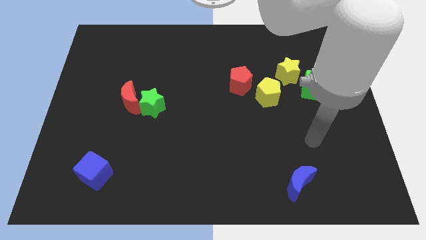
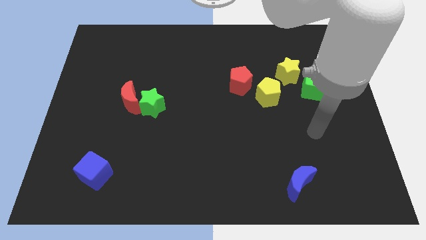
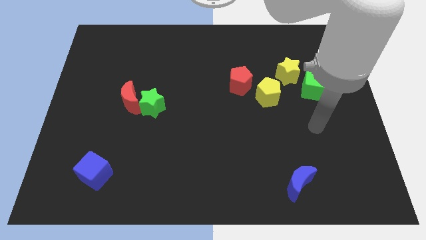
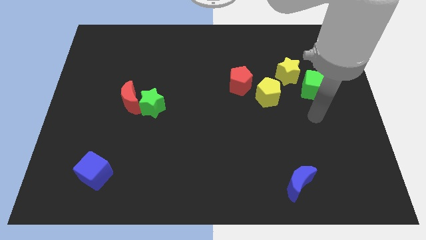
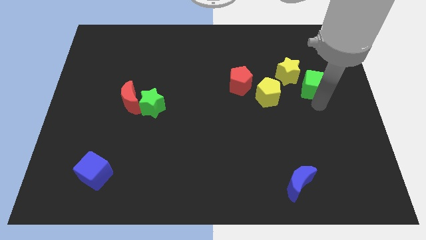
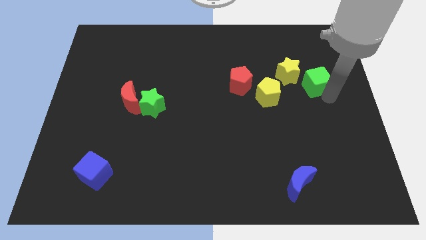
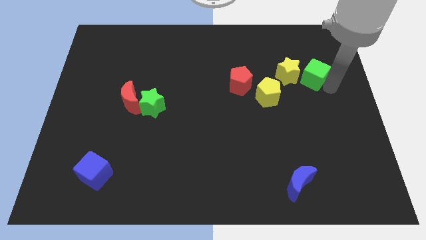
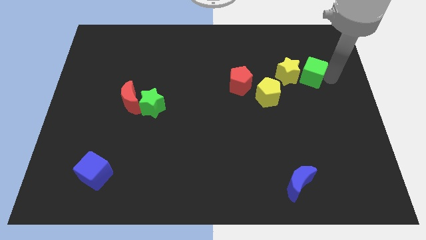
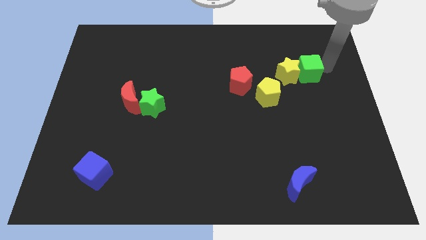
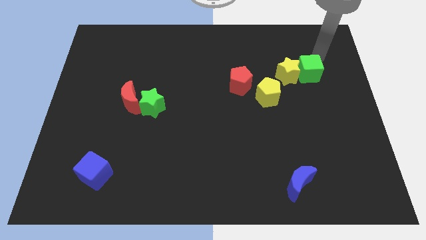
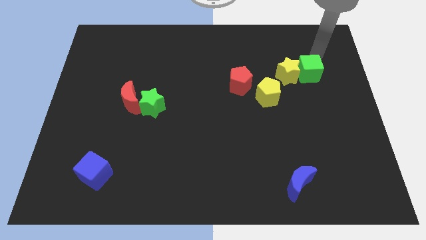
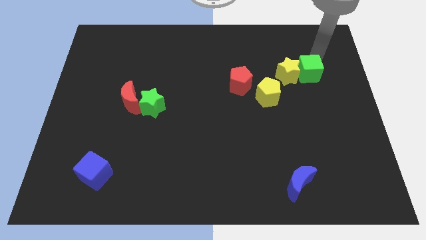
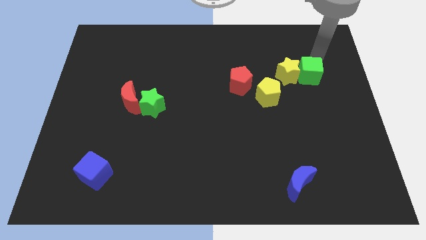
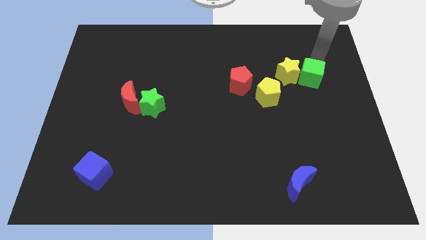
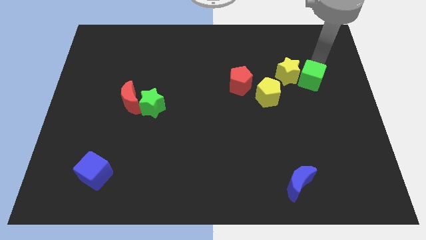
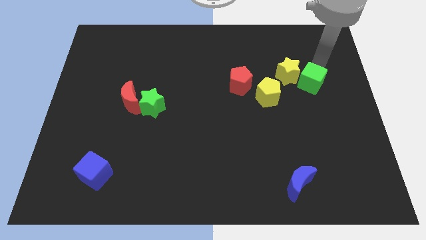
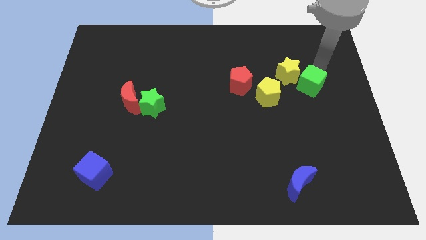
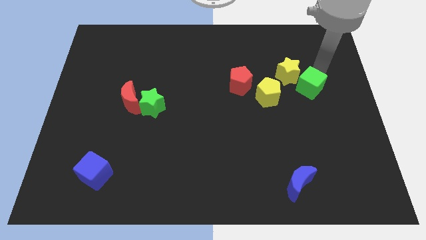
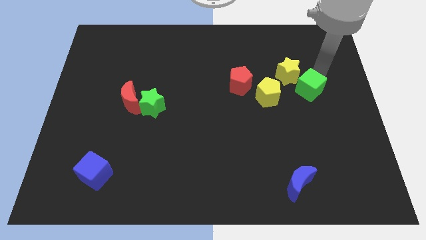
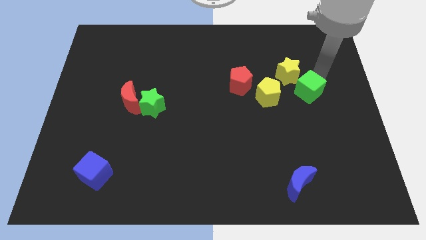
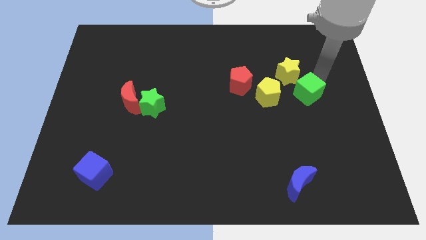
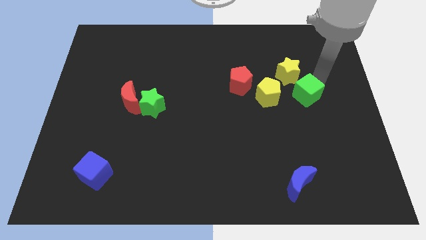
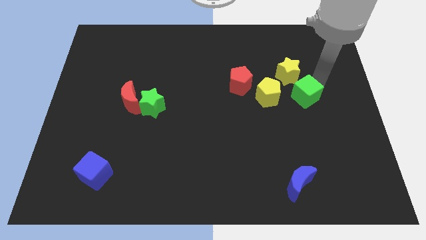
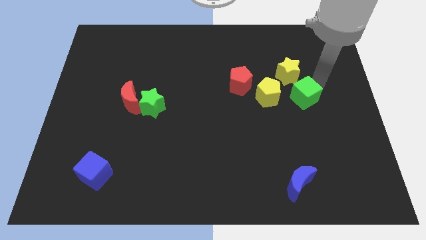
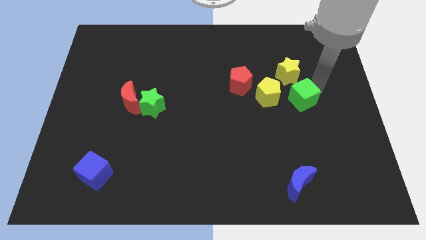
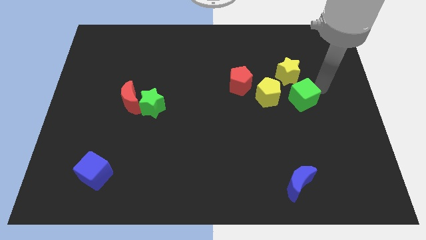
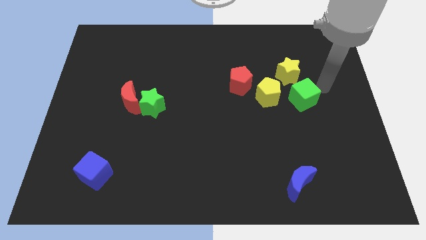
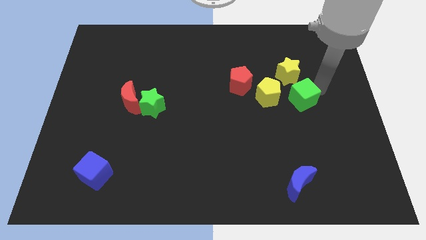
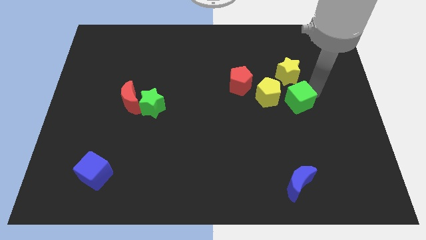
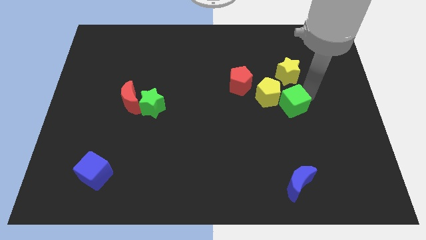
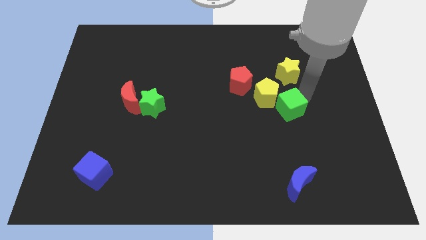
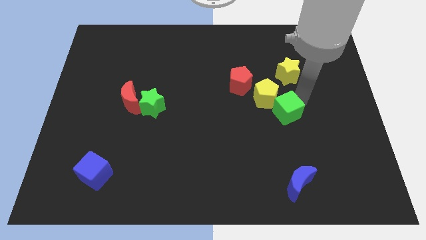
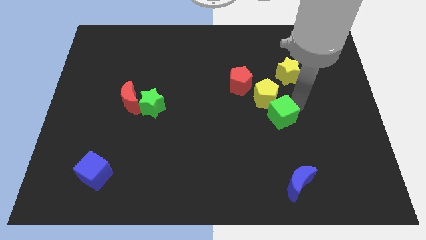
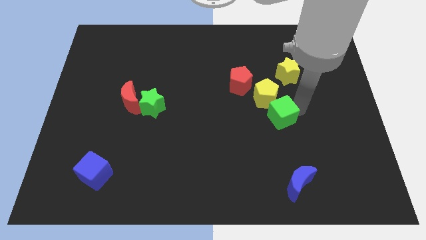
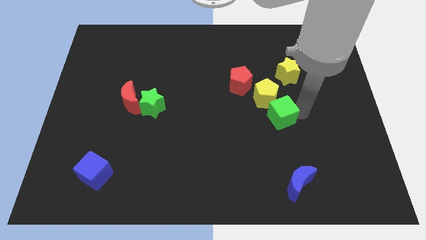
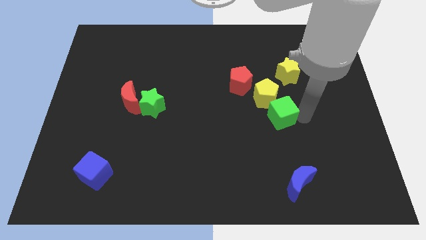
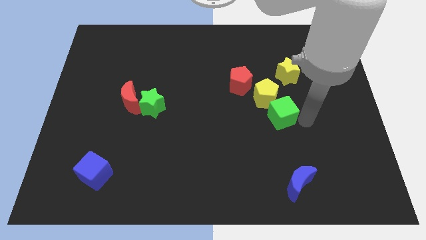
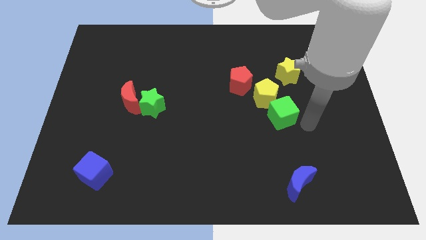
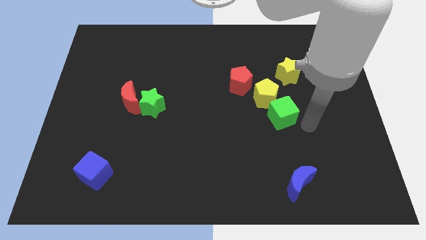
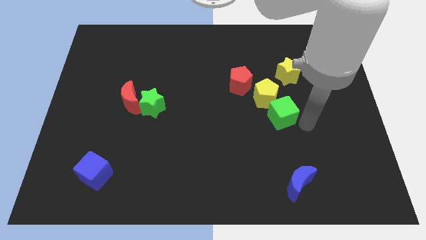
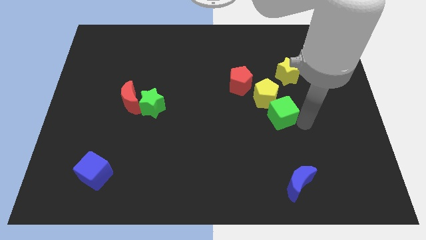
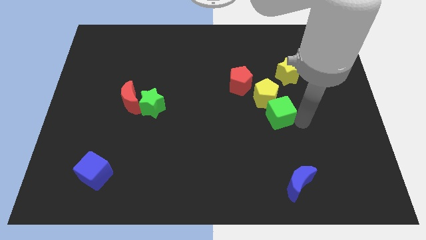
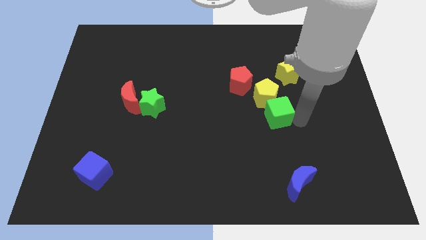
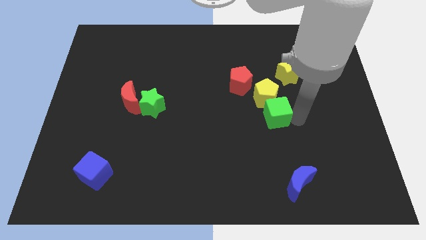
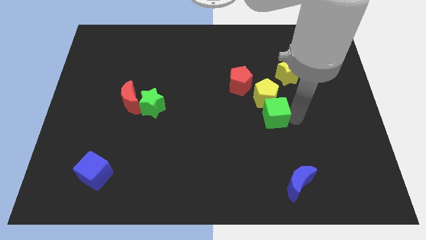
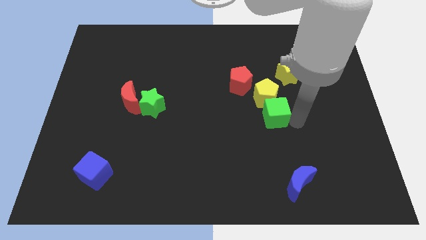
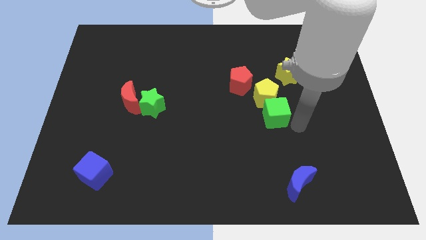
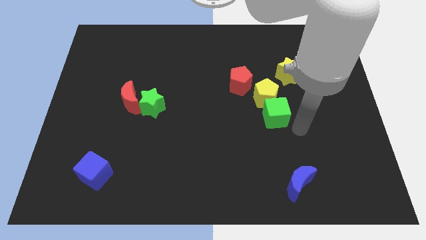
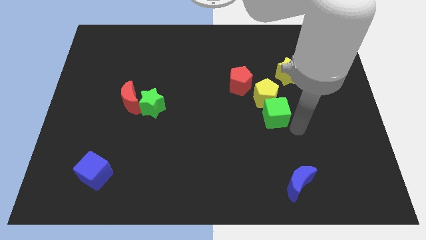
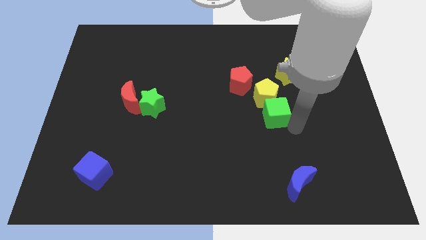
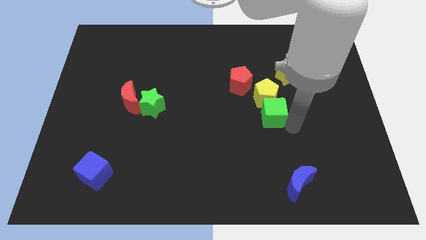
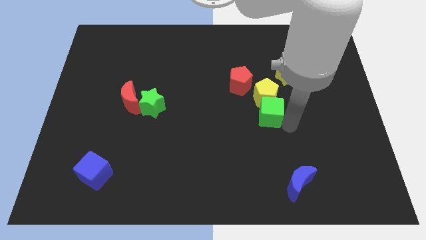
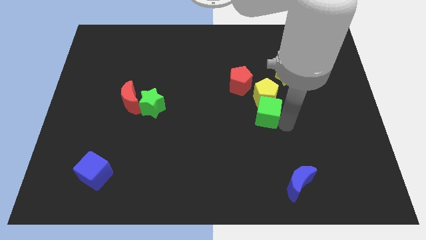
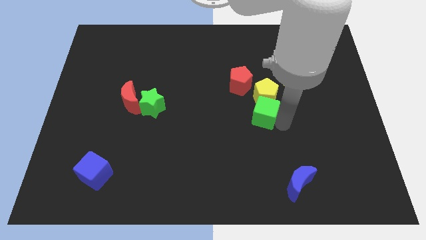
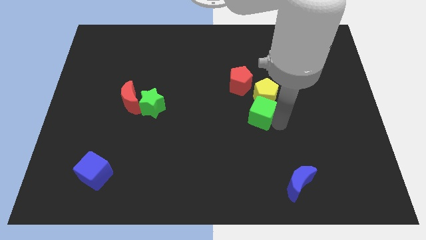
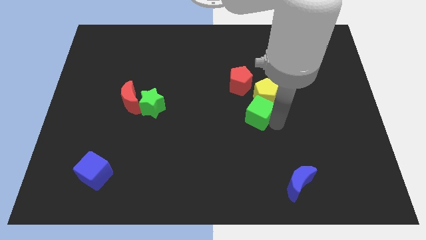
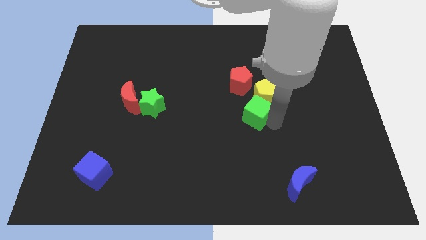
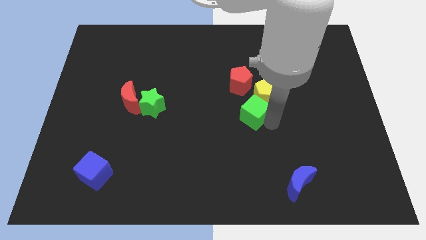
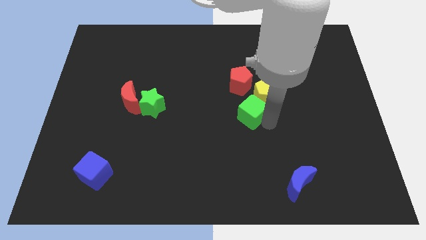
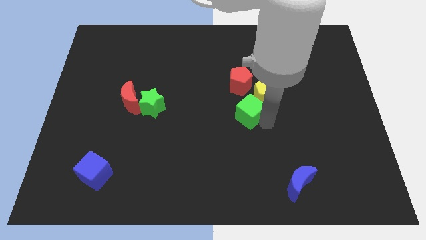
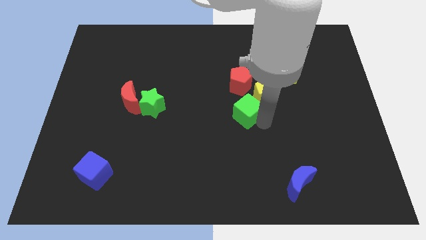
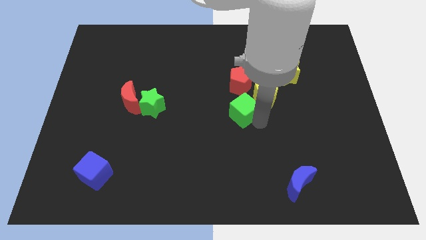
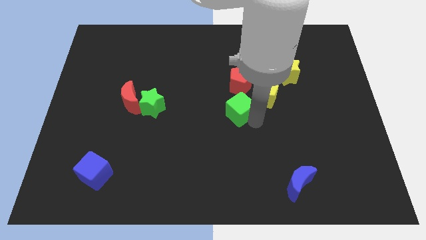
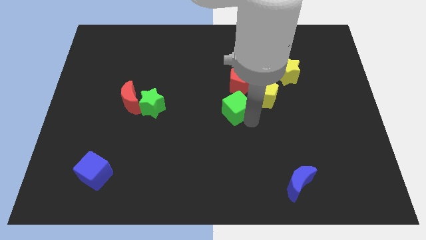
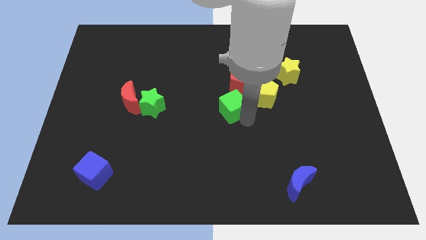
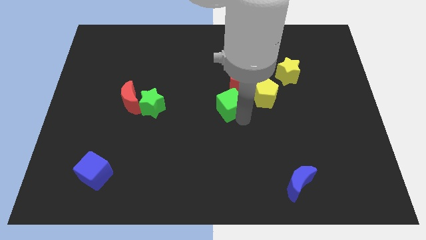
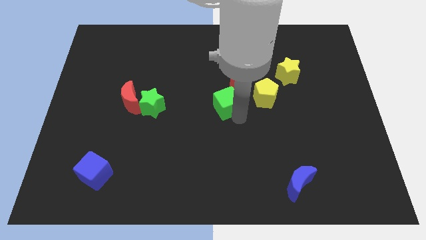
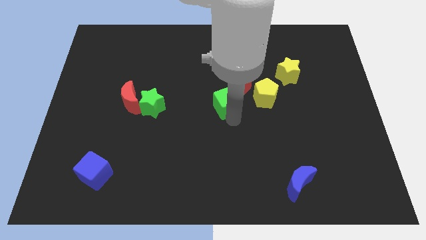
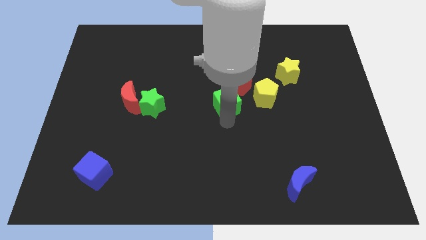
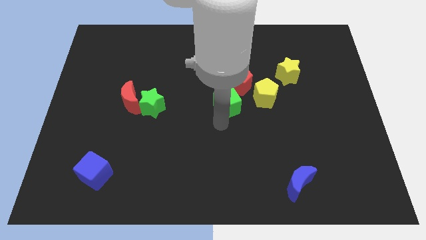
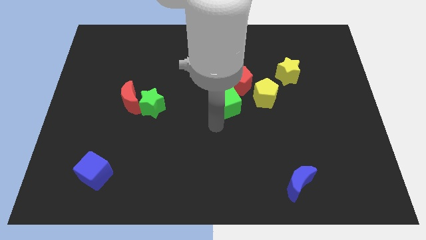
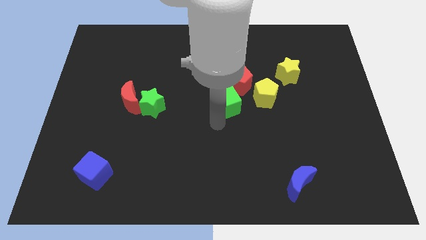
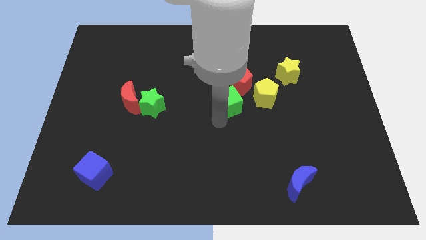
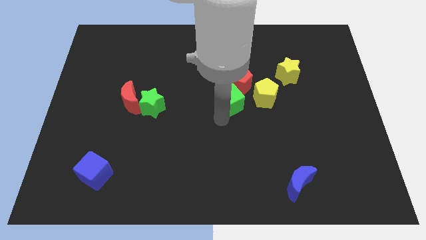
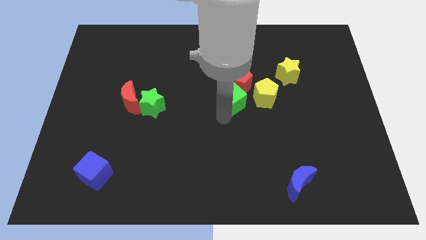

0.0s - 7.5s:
move the green cube next to the red pentagon
